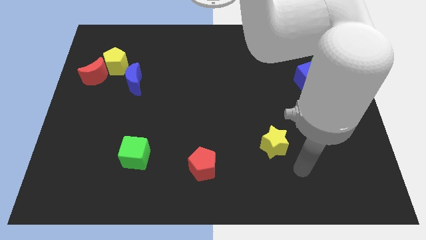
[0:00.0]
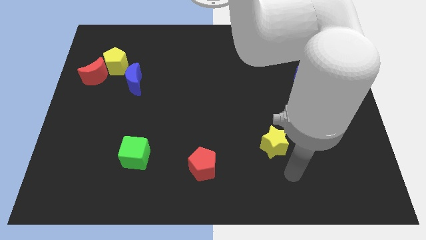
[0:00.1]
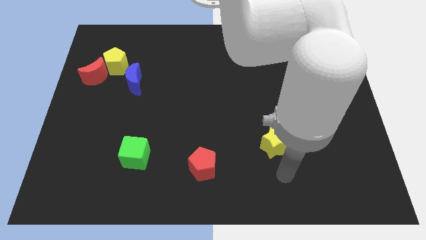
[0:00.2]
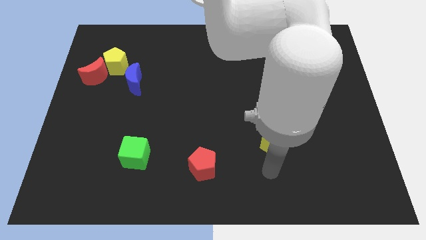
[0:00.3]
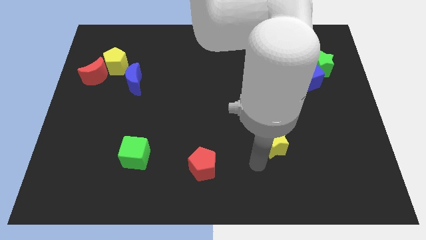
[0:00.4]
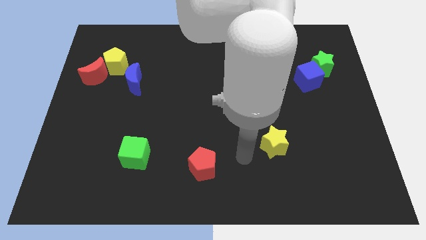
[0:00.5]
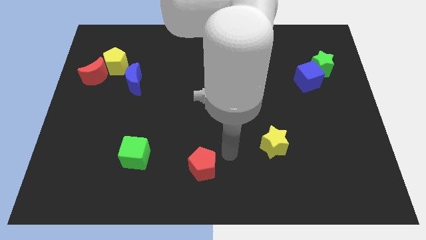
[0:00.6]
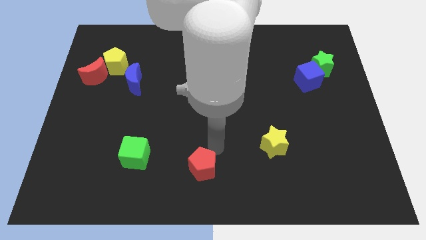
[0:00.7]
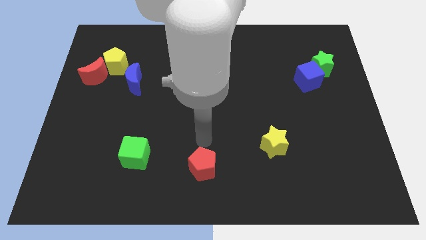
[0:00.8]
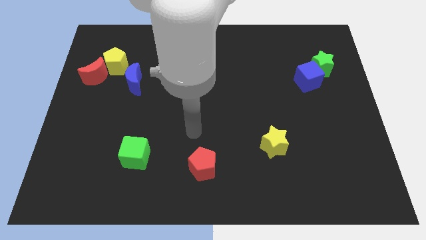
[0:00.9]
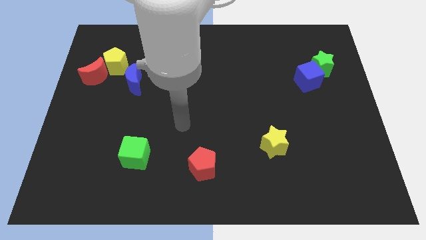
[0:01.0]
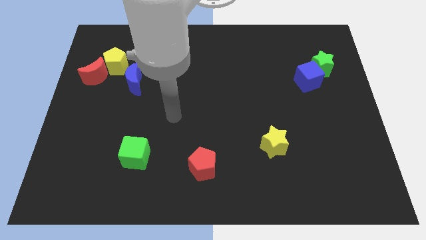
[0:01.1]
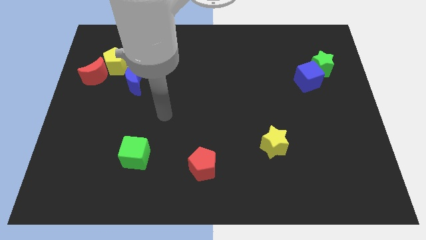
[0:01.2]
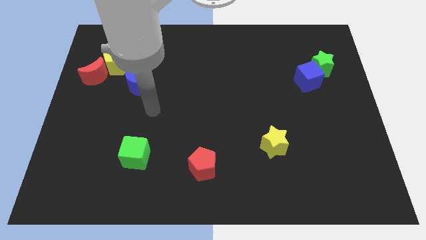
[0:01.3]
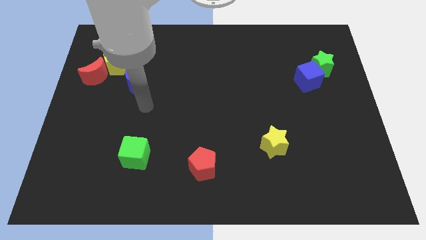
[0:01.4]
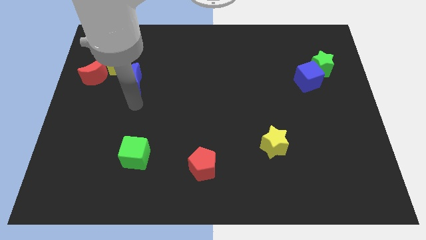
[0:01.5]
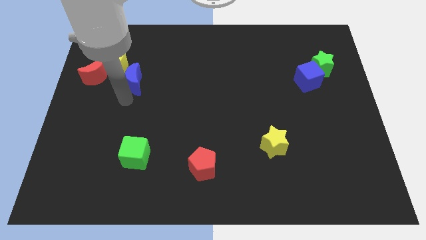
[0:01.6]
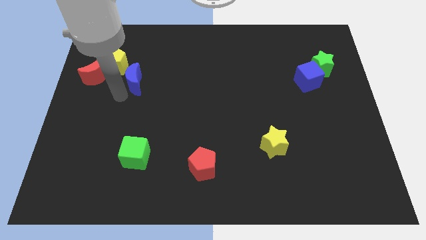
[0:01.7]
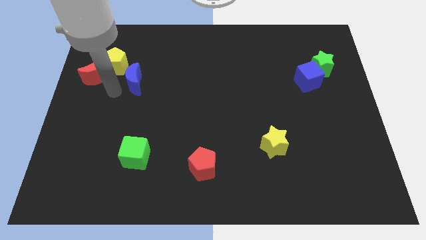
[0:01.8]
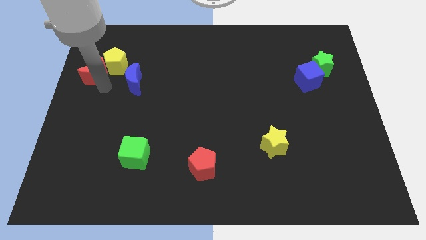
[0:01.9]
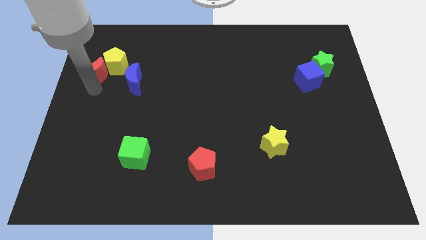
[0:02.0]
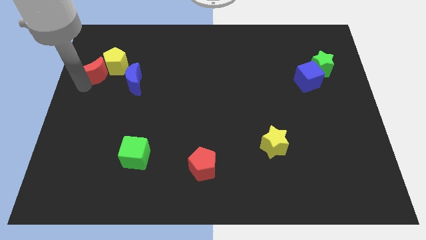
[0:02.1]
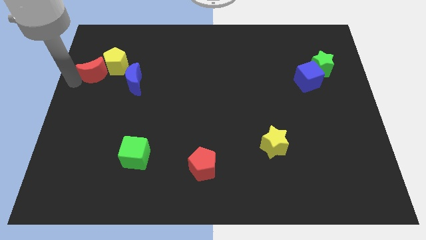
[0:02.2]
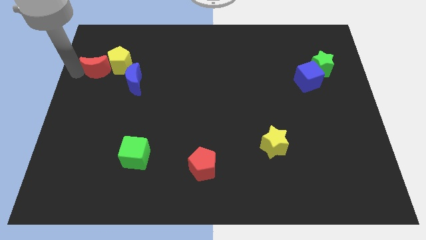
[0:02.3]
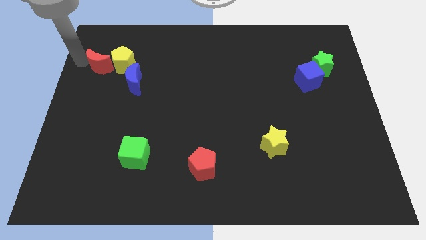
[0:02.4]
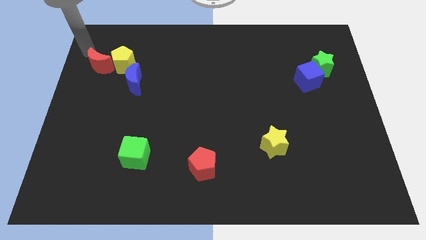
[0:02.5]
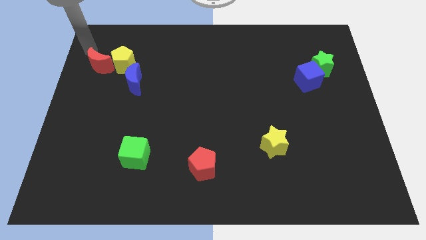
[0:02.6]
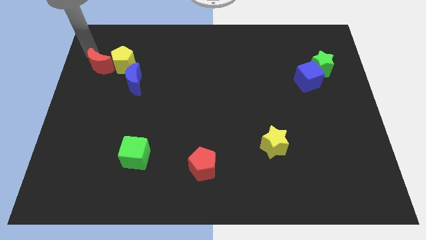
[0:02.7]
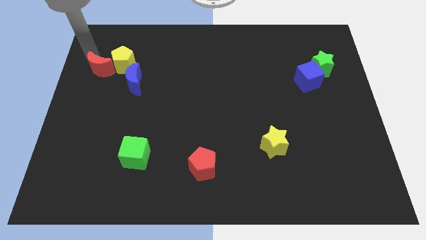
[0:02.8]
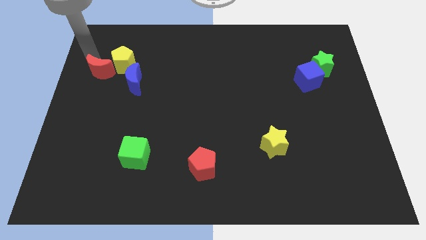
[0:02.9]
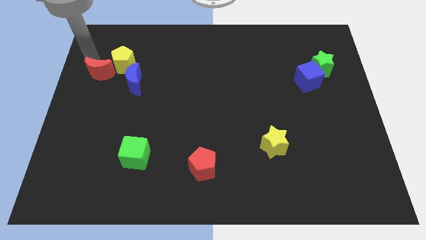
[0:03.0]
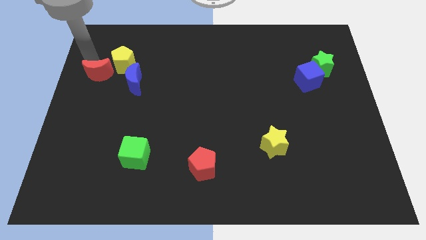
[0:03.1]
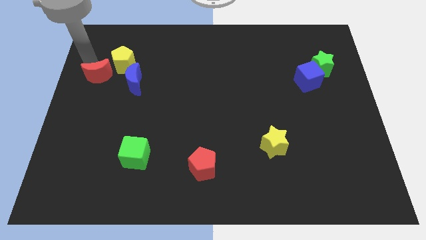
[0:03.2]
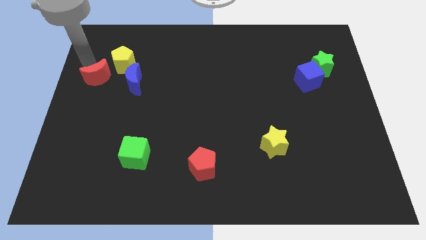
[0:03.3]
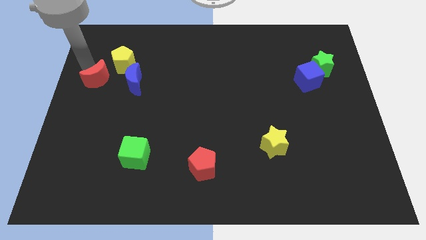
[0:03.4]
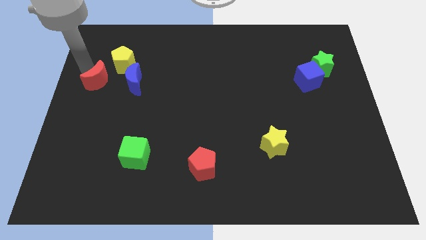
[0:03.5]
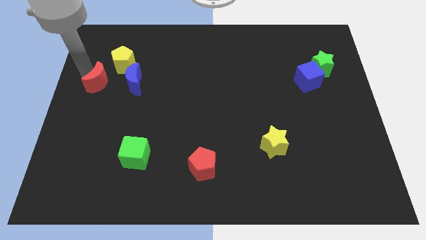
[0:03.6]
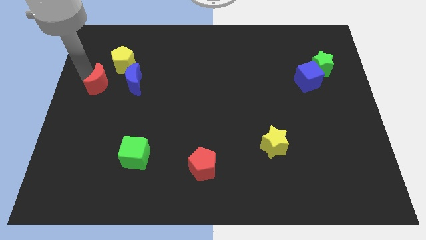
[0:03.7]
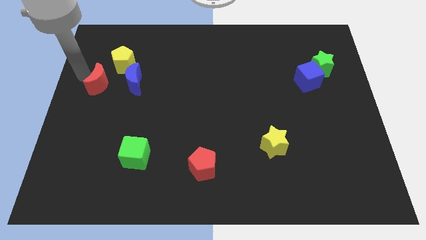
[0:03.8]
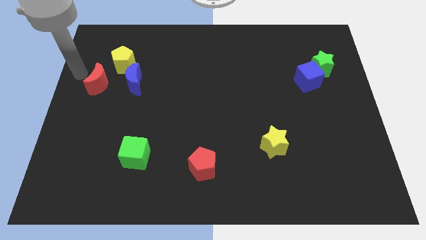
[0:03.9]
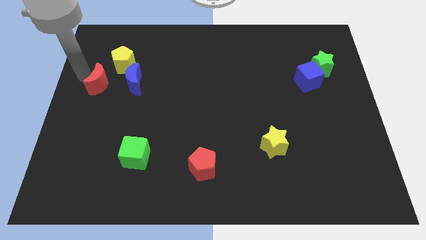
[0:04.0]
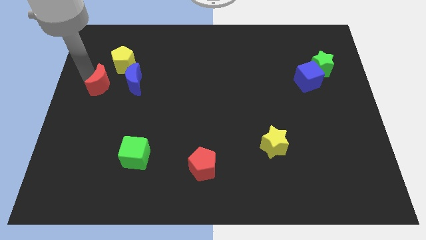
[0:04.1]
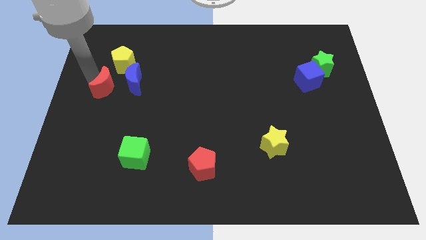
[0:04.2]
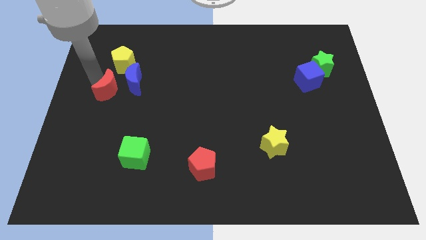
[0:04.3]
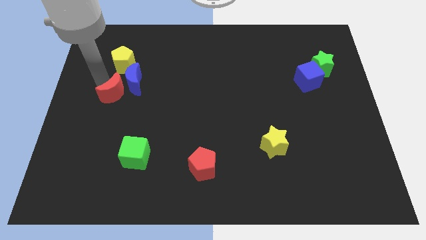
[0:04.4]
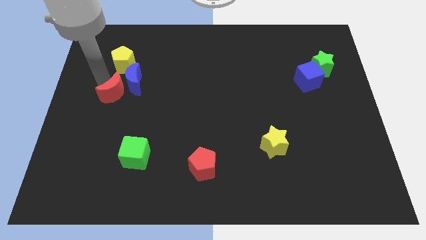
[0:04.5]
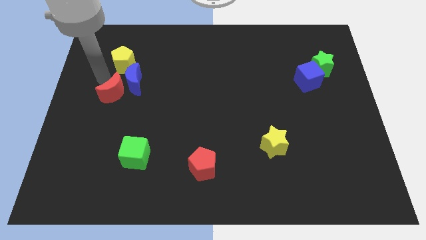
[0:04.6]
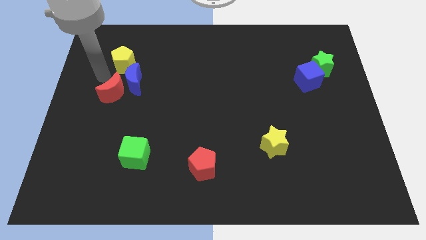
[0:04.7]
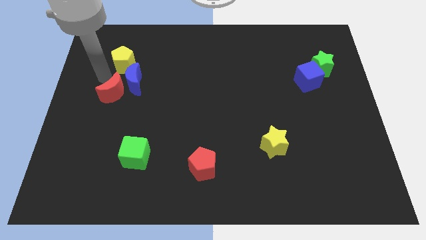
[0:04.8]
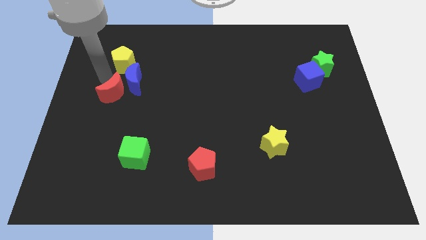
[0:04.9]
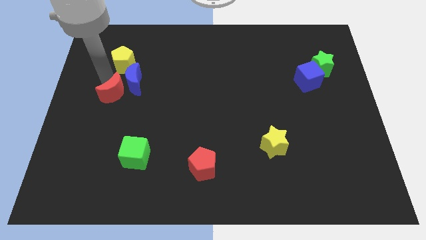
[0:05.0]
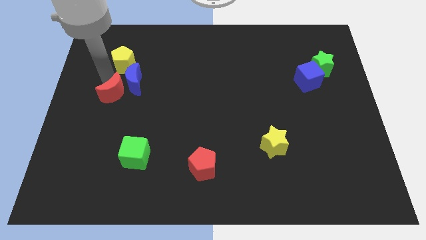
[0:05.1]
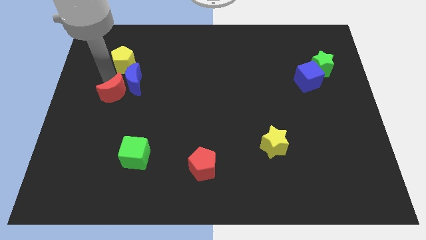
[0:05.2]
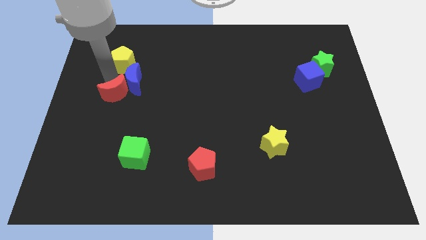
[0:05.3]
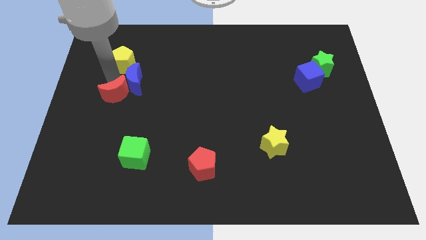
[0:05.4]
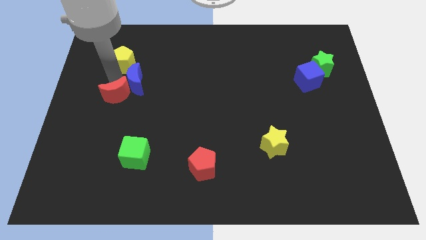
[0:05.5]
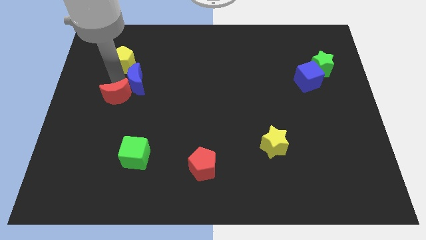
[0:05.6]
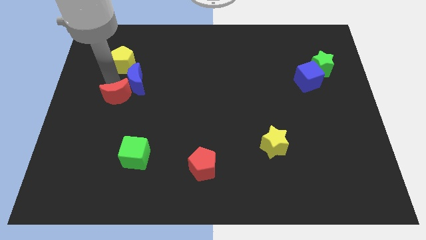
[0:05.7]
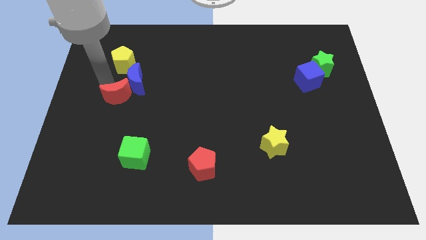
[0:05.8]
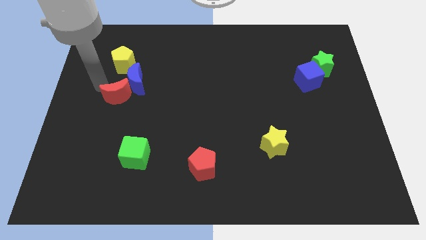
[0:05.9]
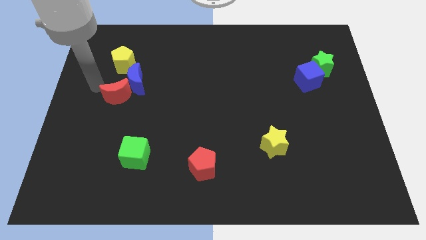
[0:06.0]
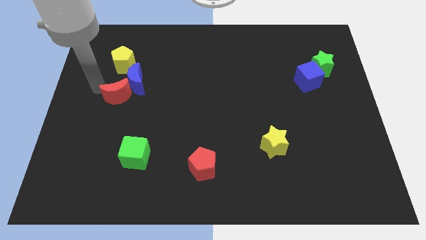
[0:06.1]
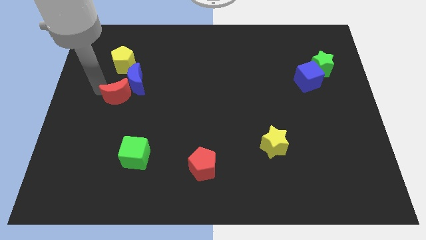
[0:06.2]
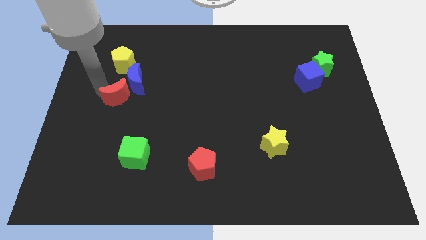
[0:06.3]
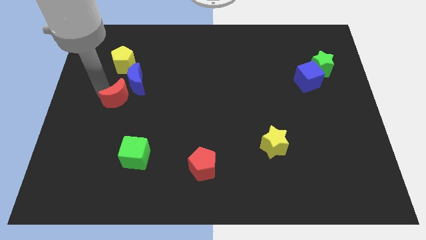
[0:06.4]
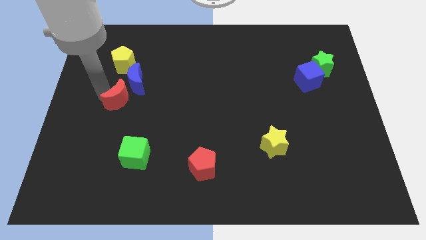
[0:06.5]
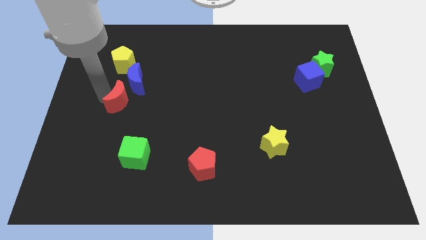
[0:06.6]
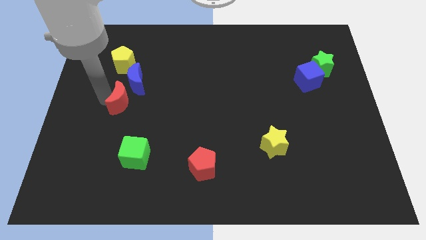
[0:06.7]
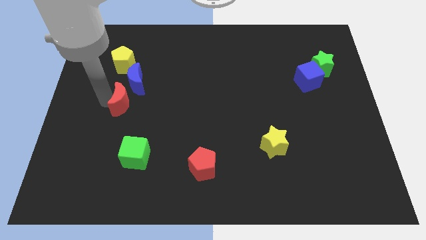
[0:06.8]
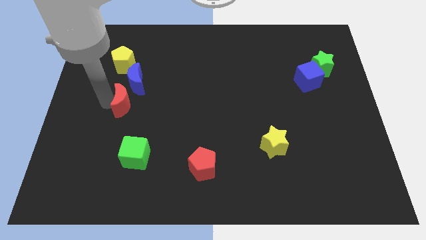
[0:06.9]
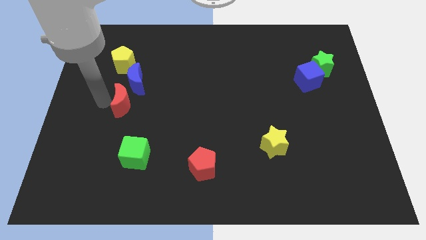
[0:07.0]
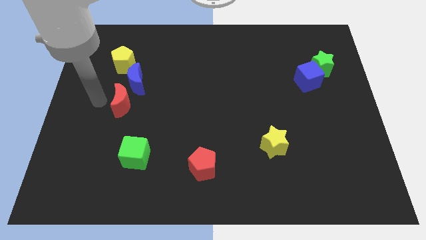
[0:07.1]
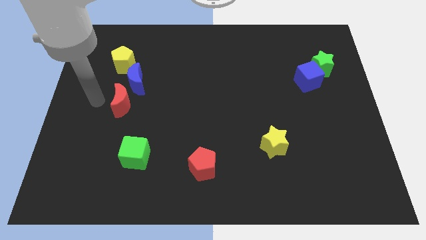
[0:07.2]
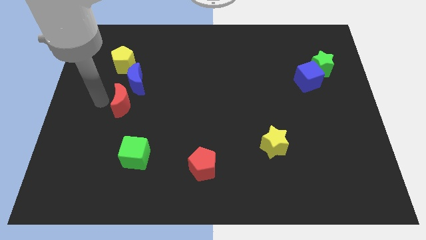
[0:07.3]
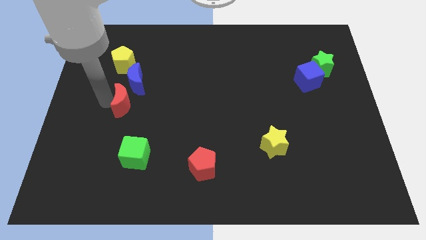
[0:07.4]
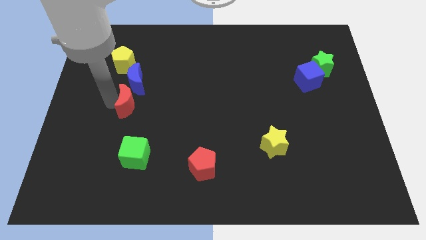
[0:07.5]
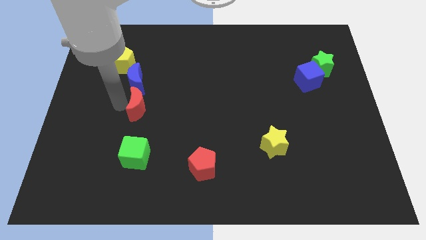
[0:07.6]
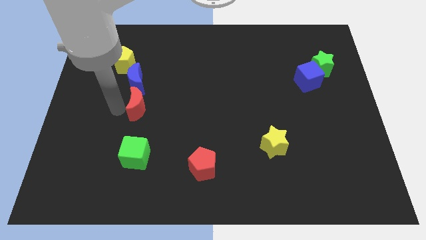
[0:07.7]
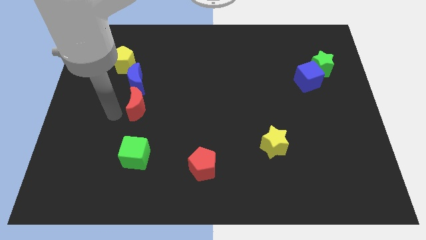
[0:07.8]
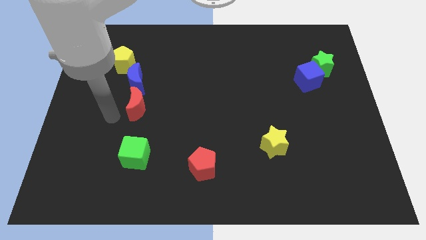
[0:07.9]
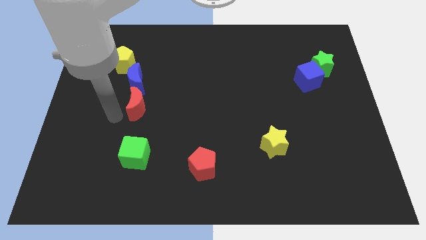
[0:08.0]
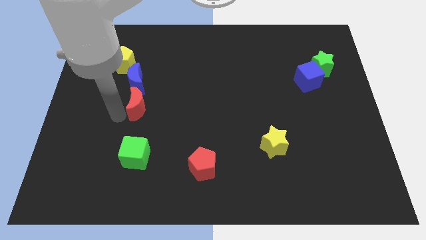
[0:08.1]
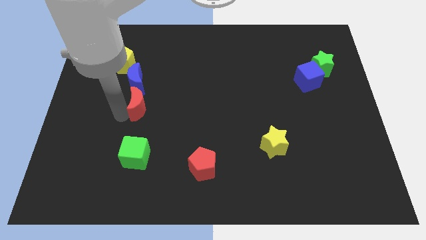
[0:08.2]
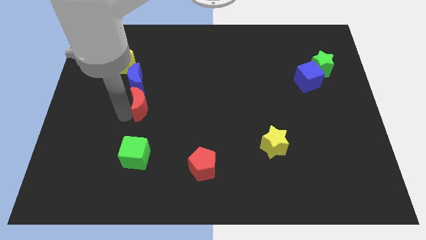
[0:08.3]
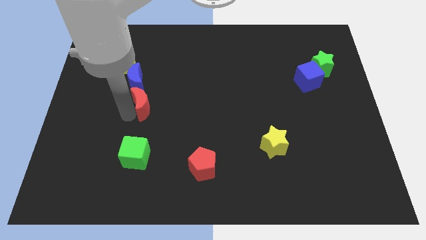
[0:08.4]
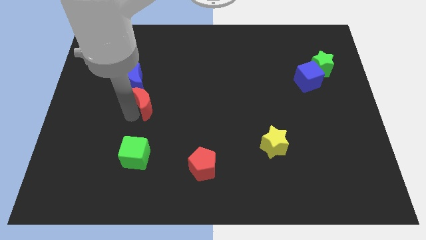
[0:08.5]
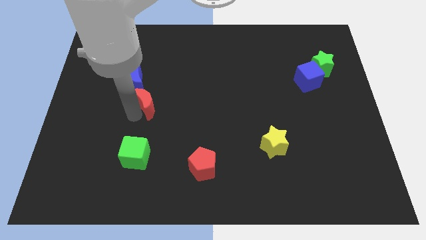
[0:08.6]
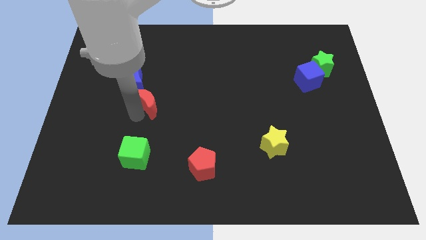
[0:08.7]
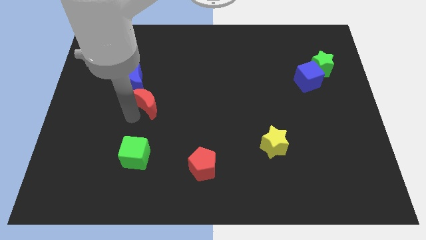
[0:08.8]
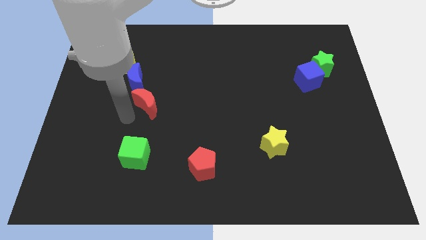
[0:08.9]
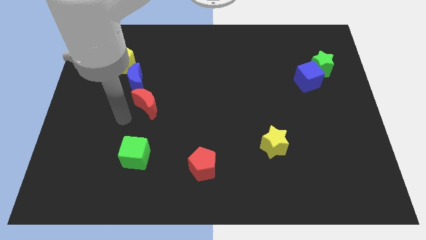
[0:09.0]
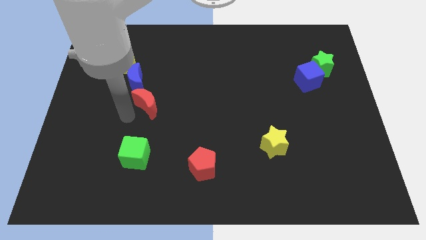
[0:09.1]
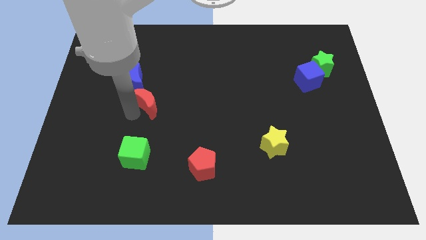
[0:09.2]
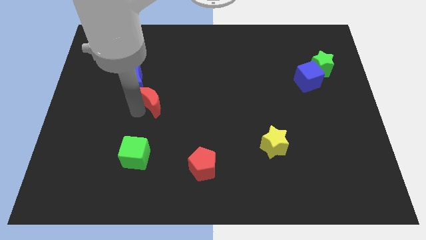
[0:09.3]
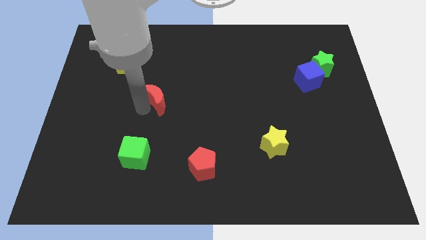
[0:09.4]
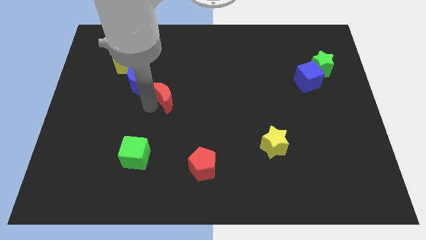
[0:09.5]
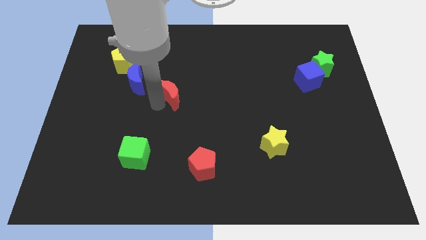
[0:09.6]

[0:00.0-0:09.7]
slide the red moon to the right of the blue moon
